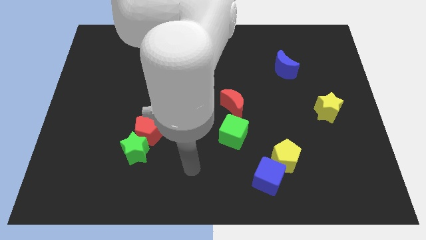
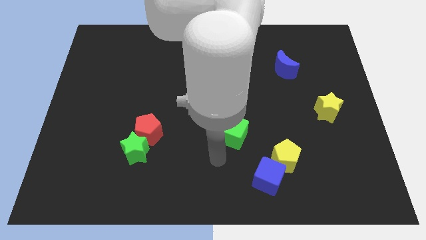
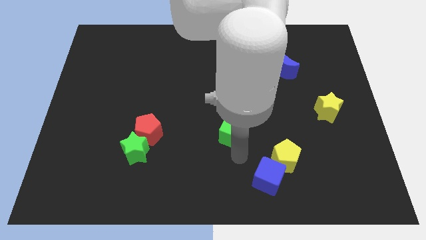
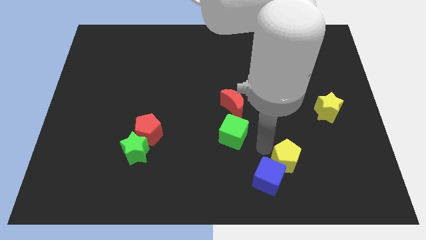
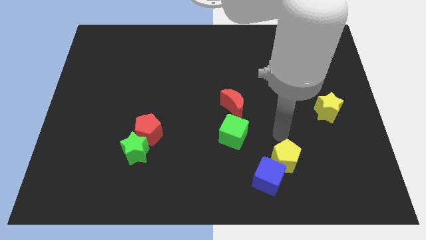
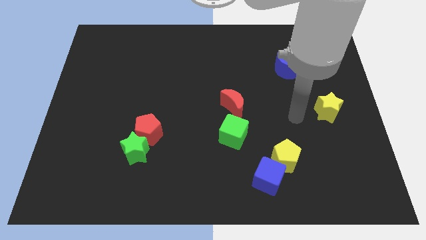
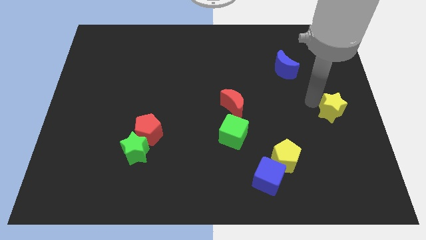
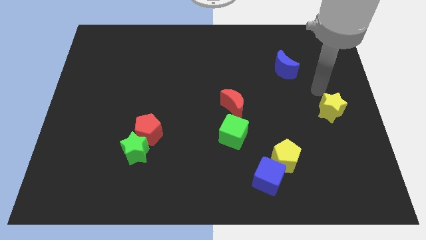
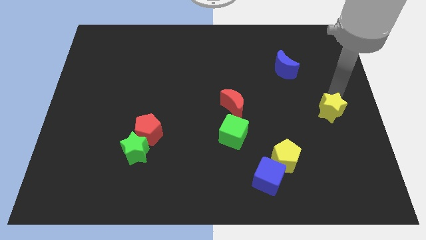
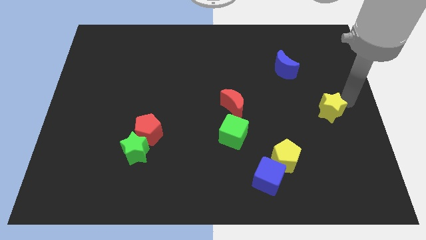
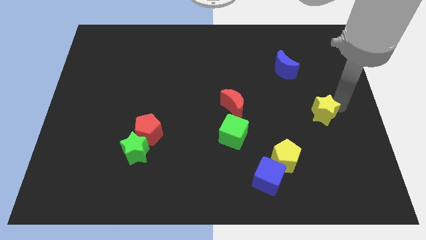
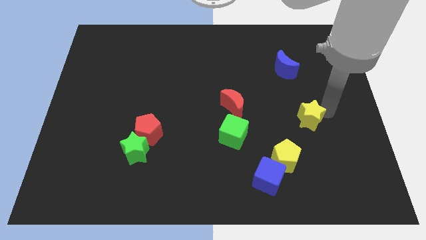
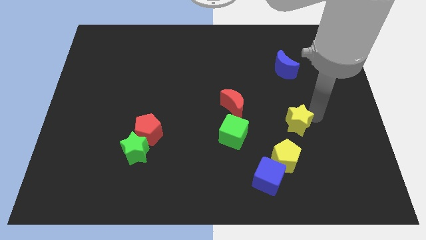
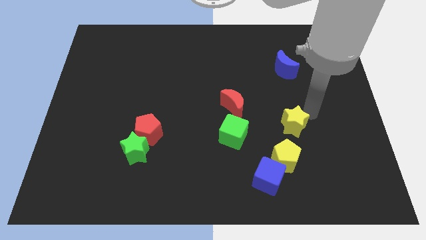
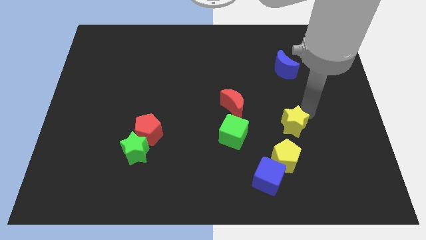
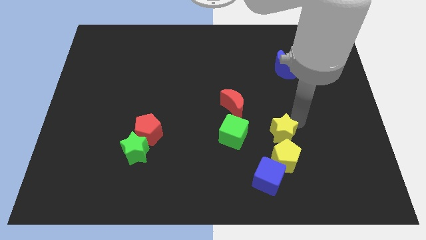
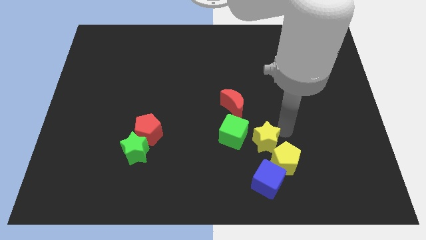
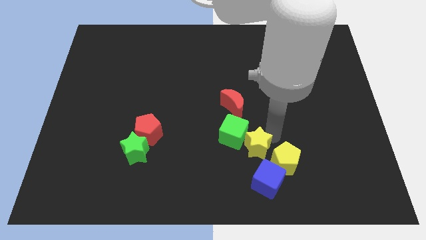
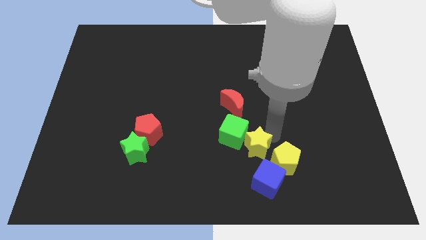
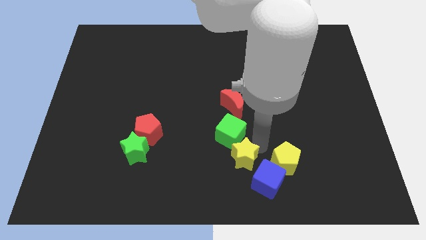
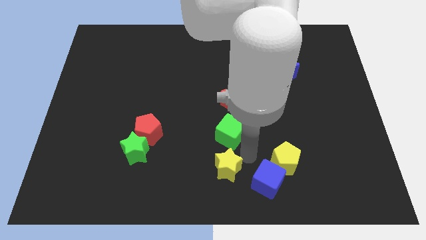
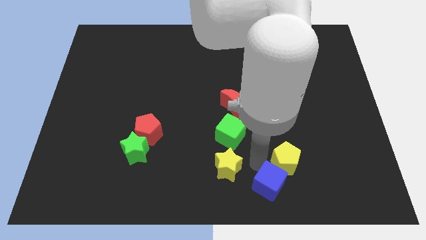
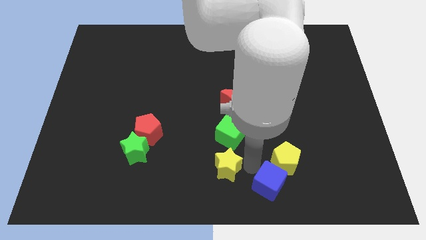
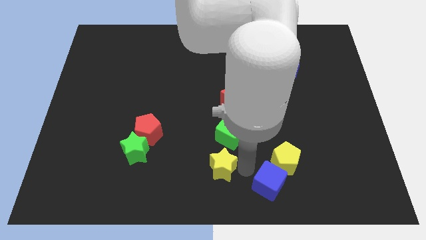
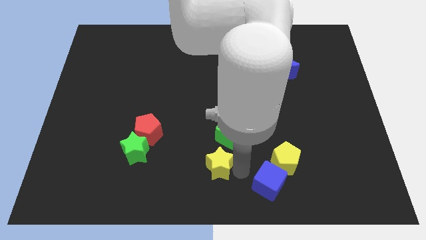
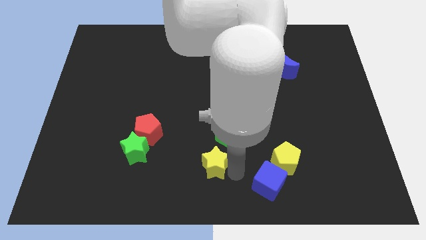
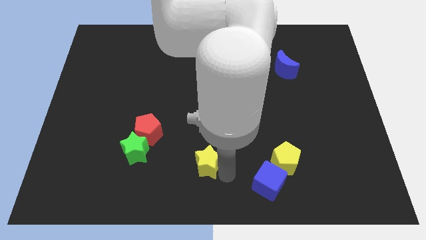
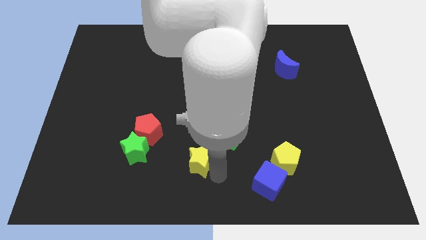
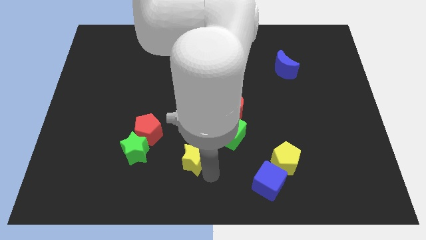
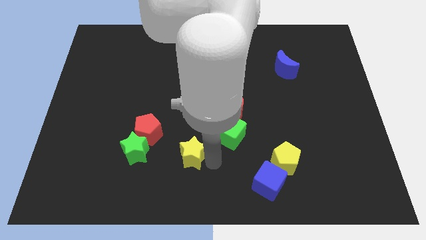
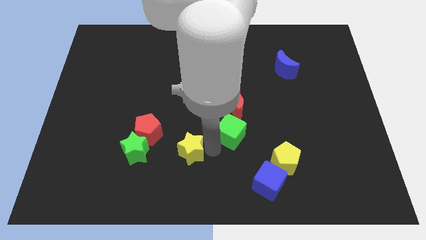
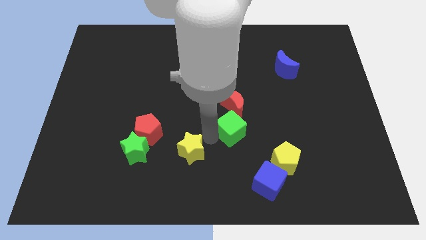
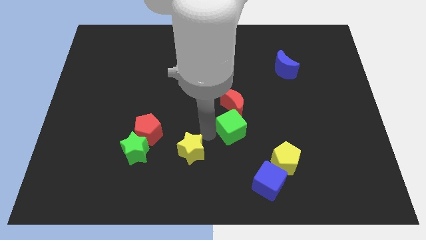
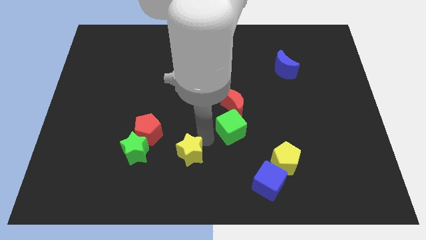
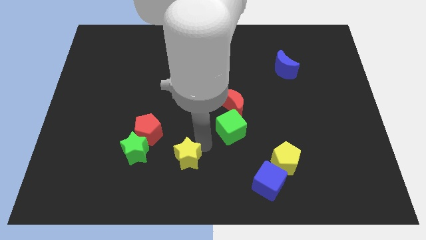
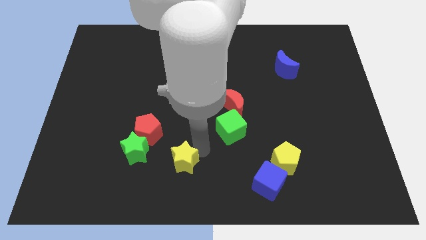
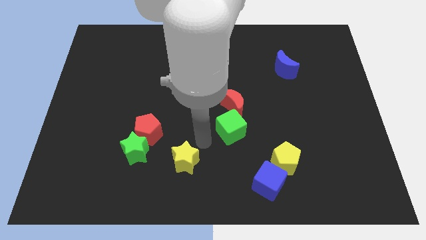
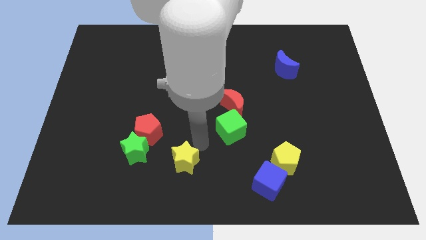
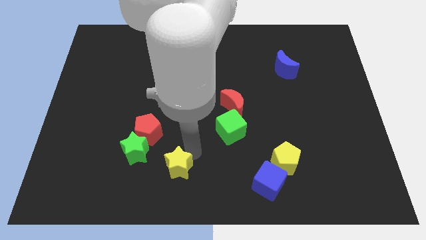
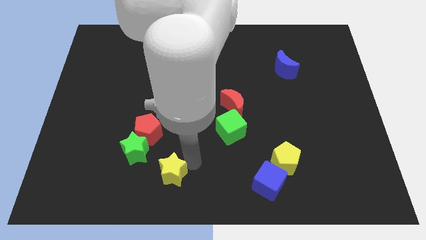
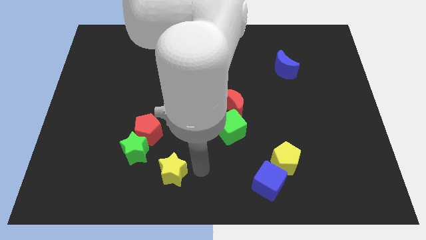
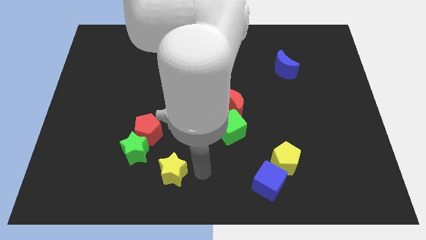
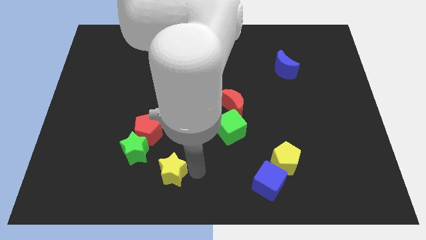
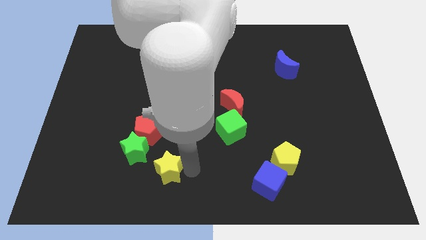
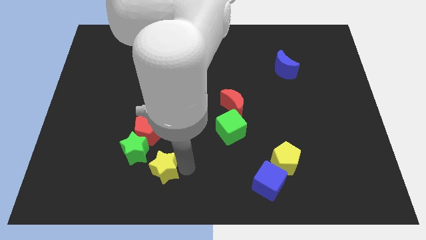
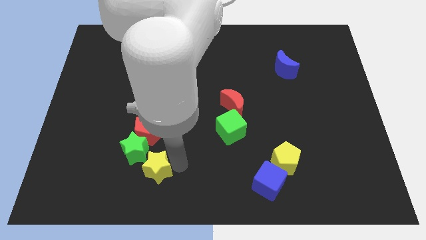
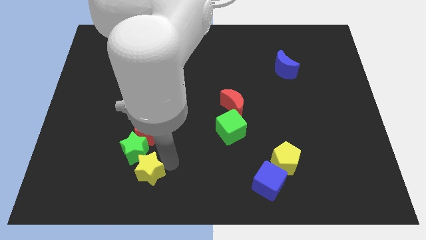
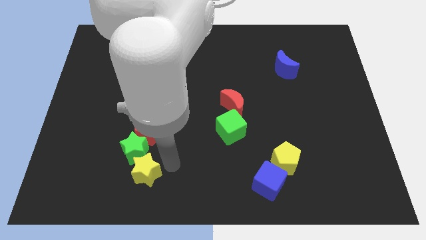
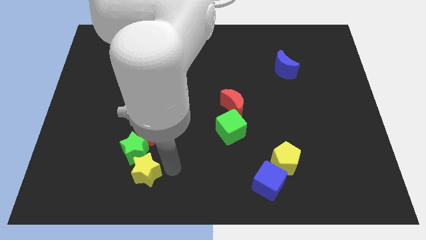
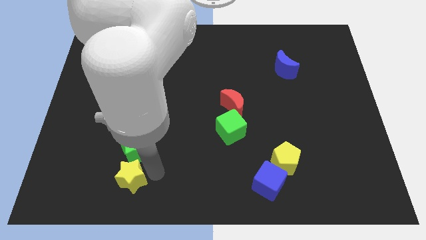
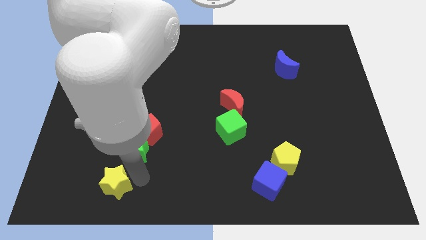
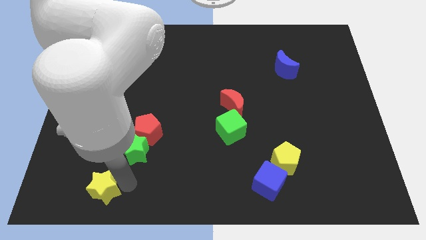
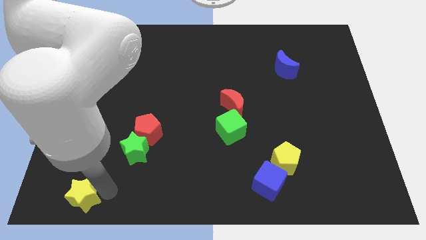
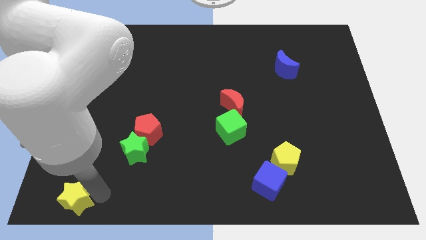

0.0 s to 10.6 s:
put the yellow star to the lower left corner

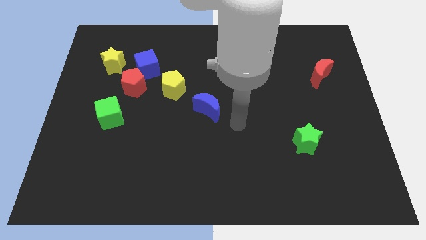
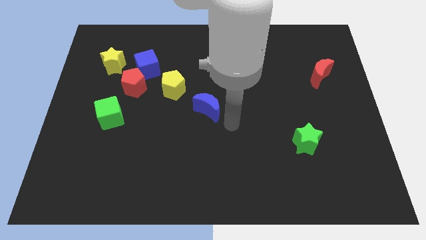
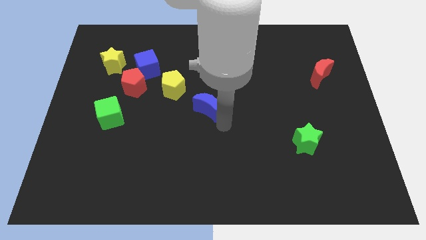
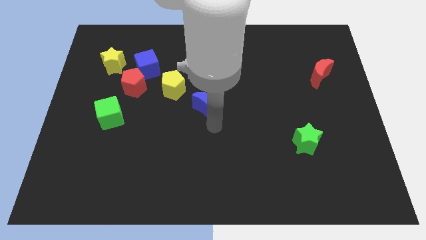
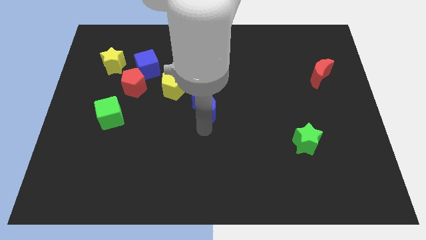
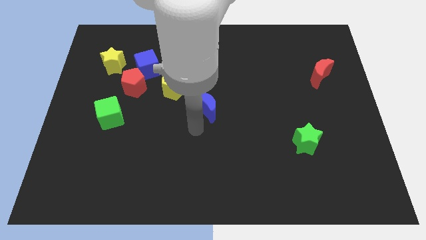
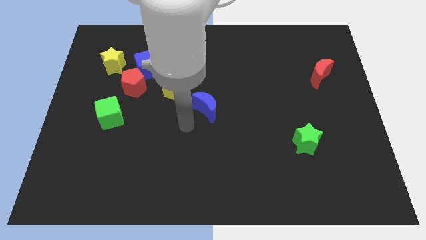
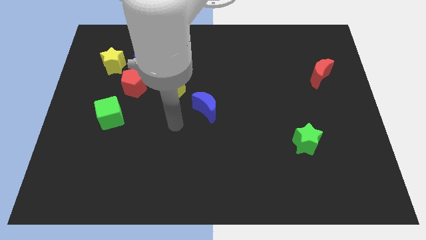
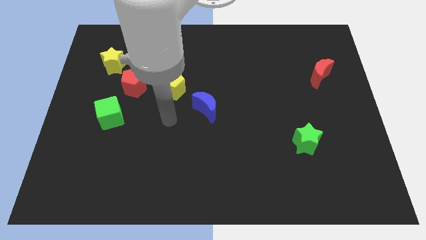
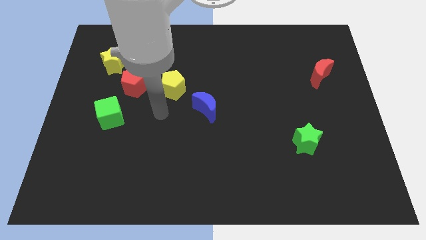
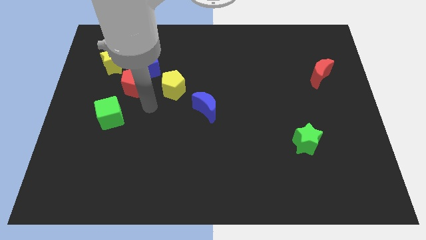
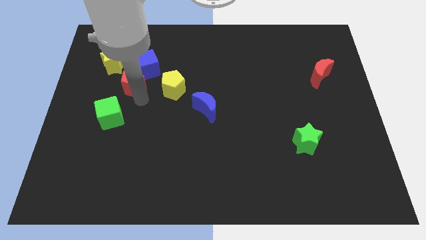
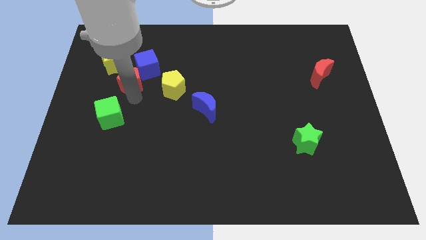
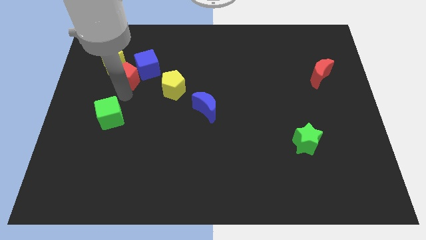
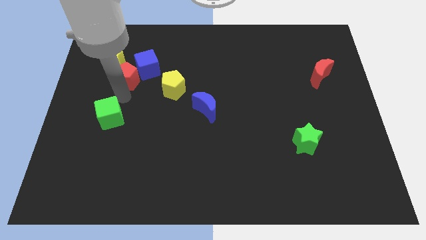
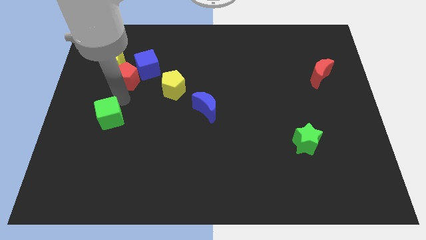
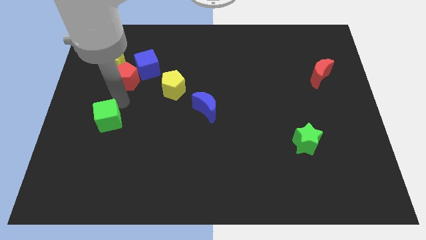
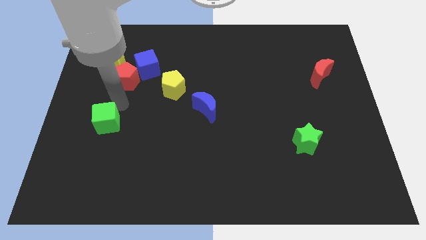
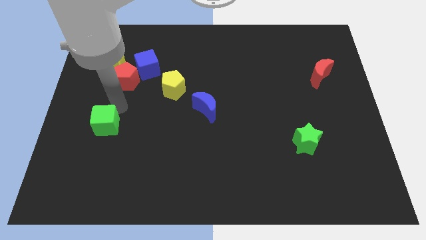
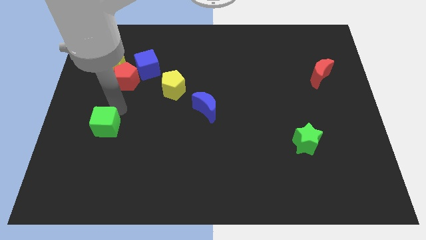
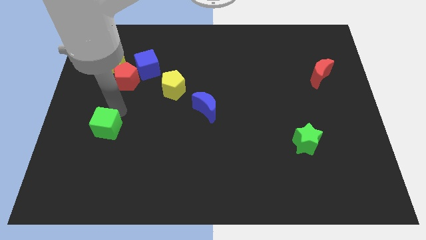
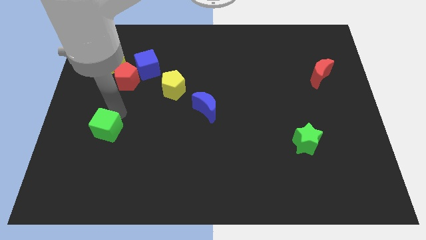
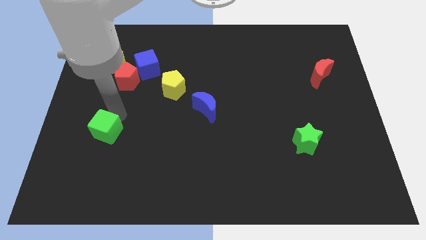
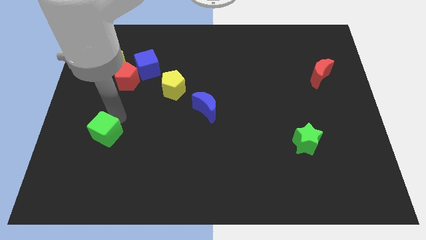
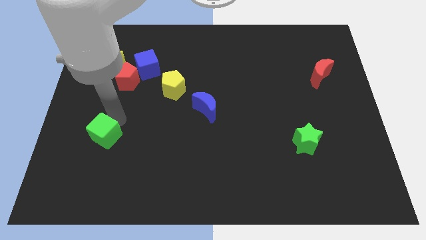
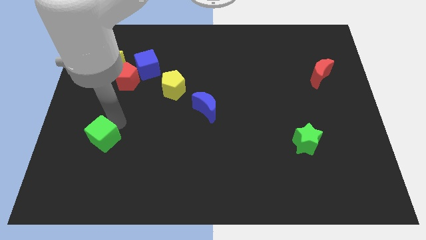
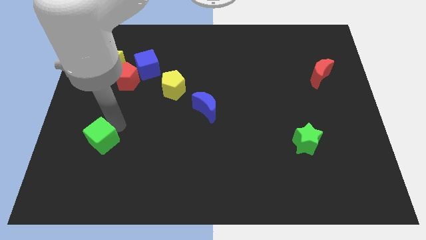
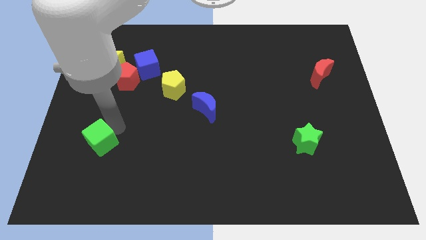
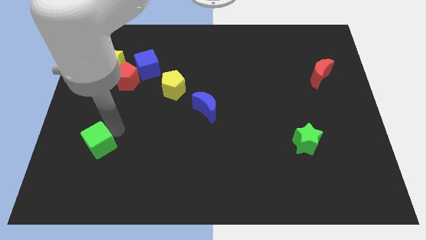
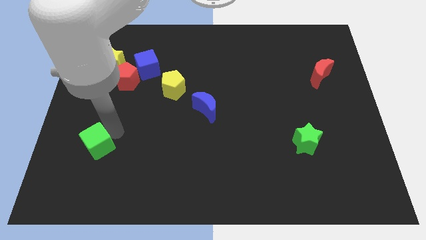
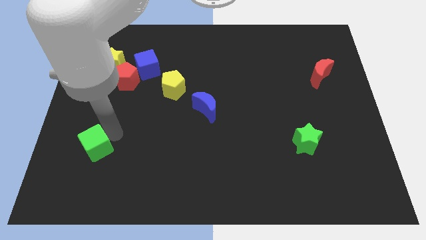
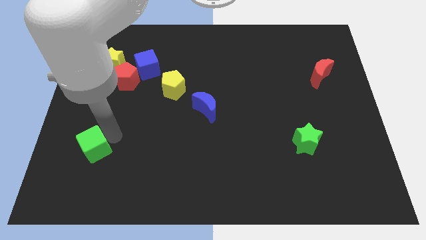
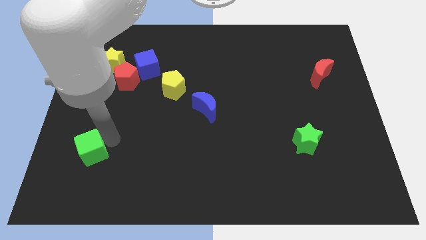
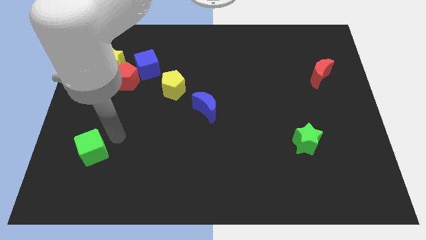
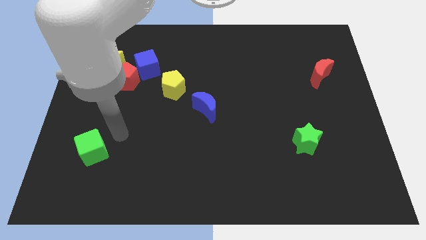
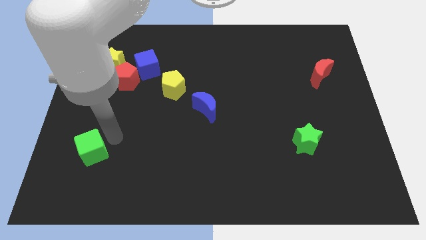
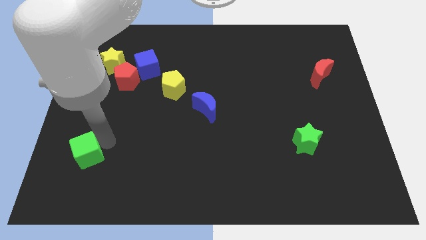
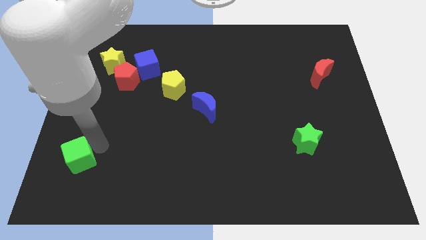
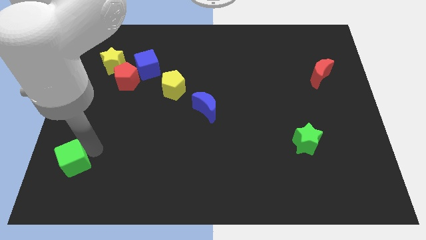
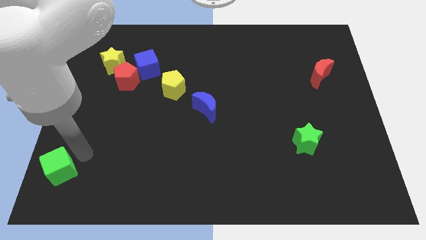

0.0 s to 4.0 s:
slide the green cube to the bottom left corner
